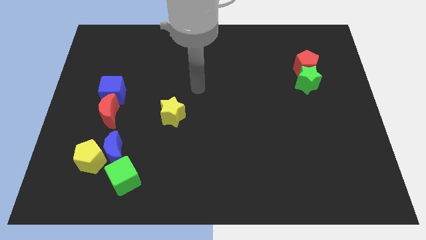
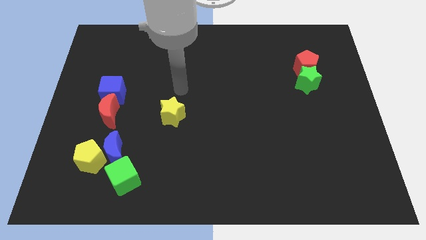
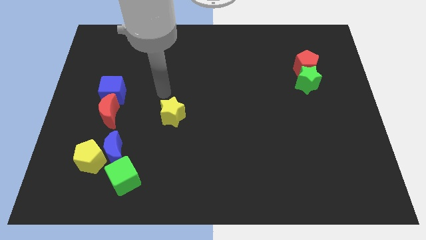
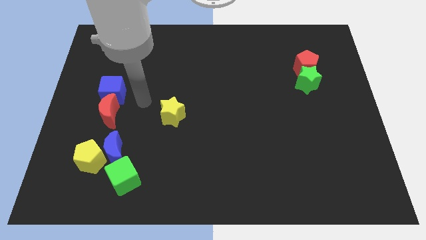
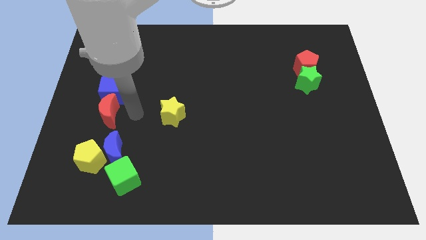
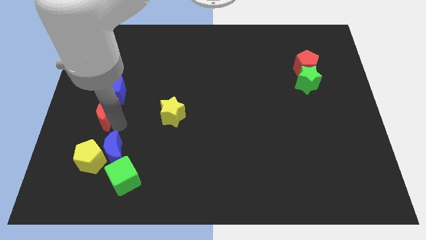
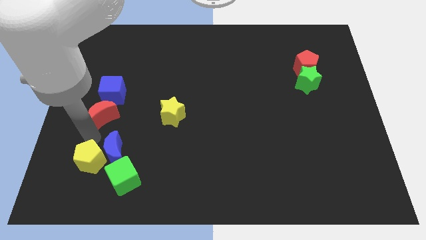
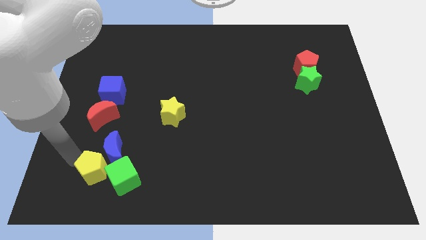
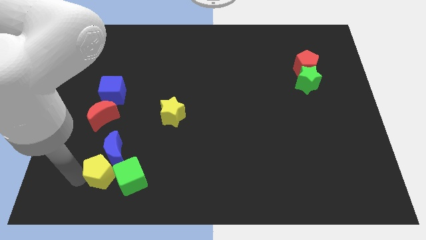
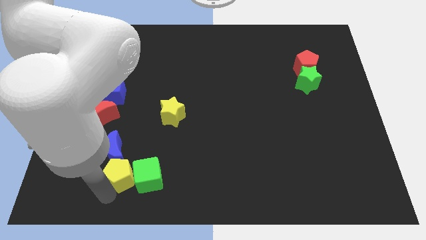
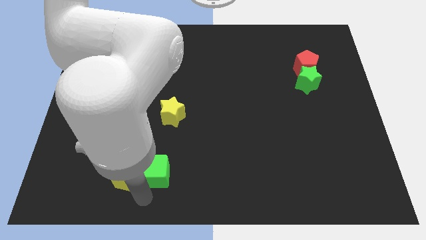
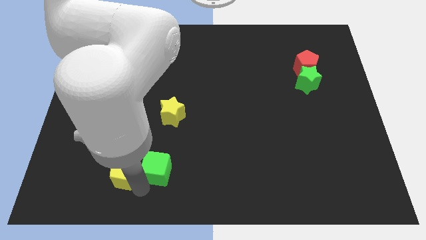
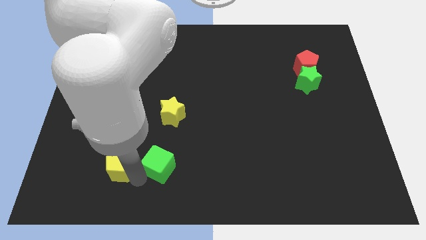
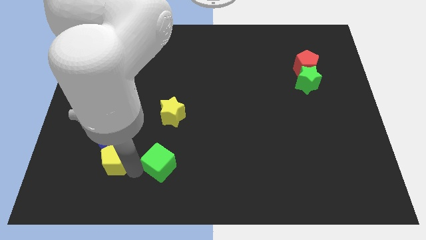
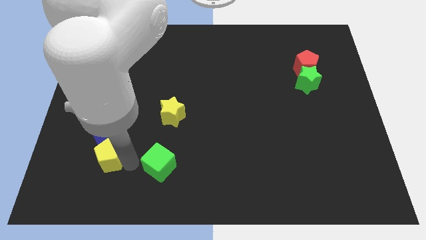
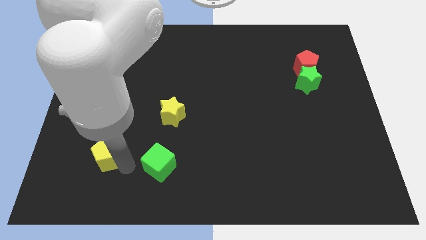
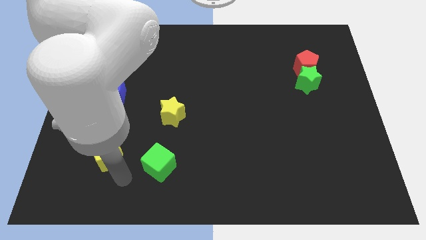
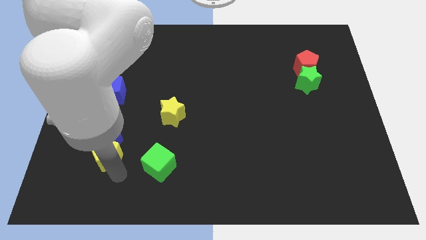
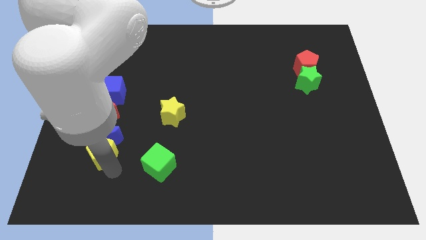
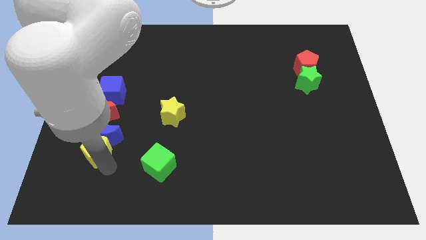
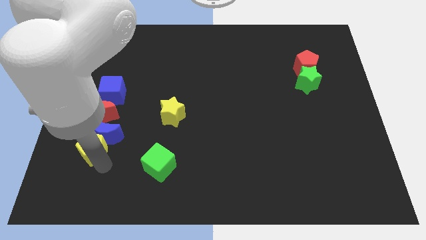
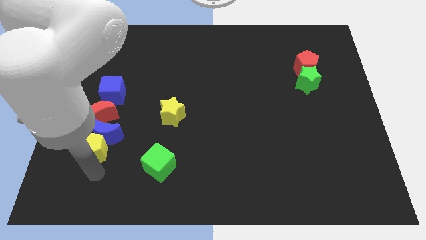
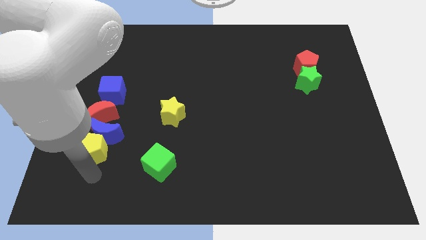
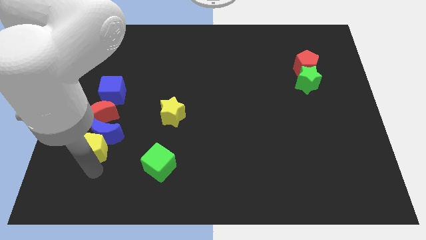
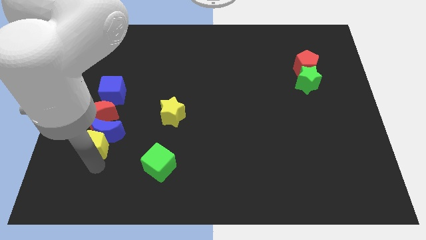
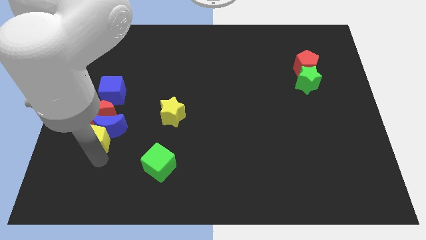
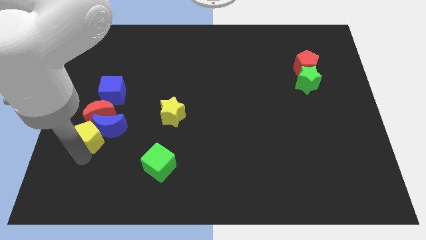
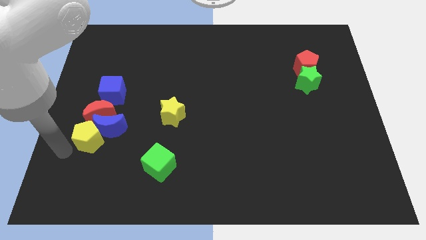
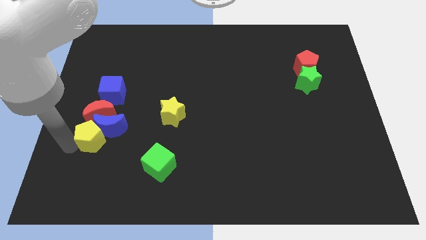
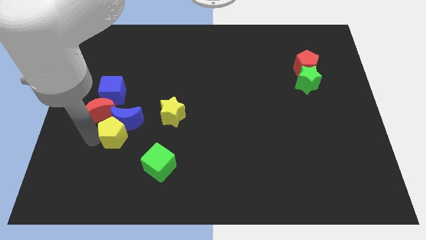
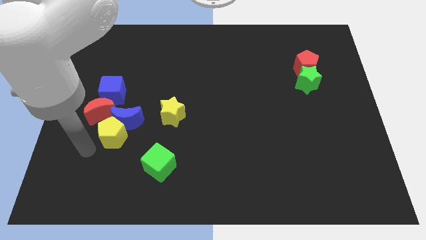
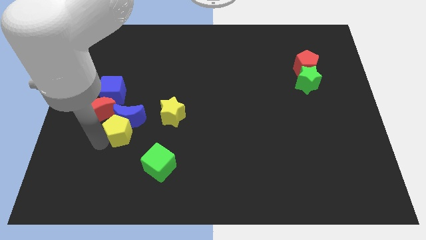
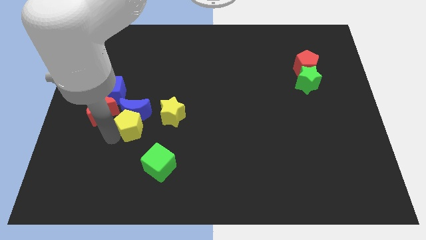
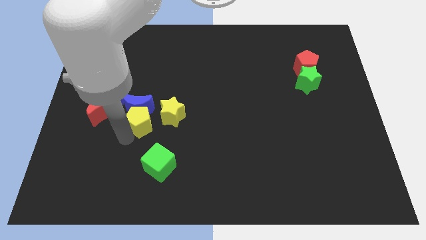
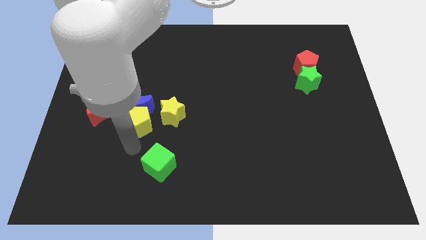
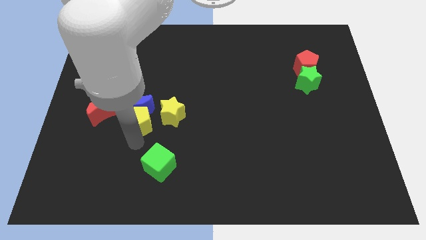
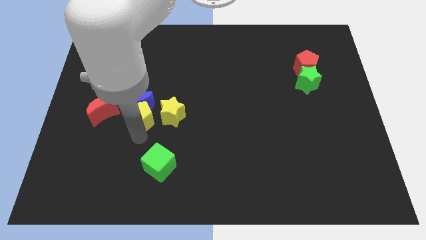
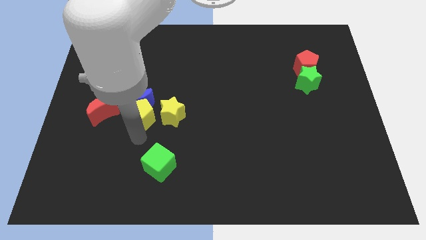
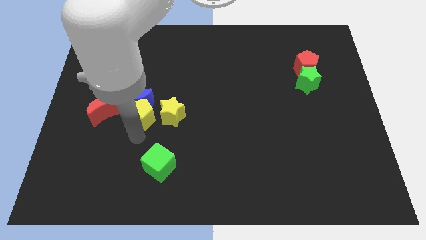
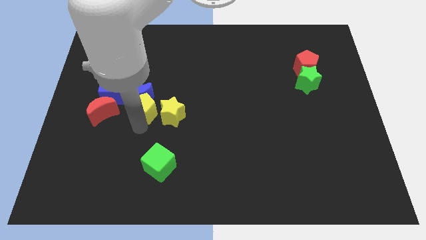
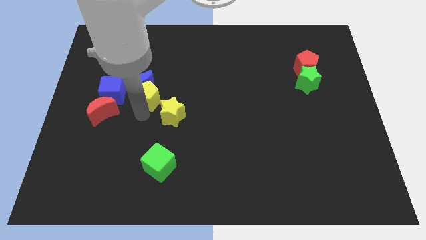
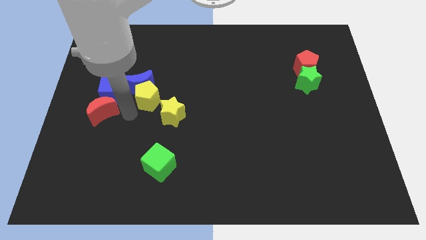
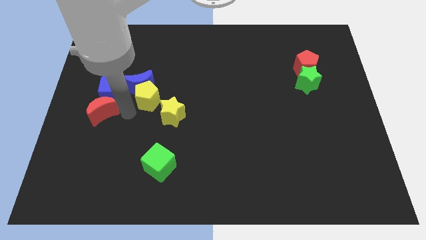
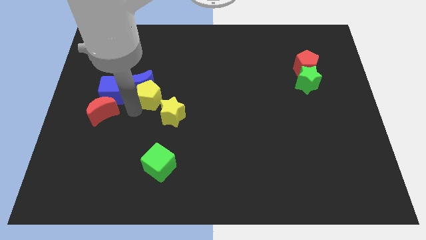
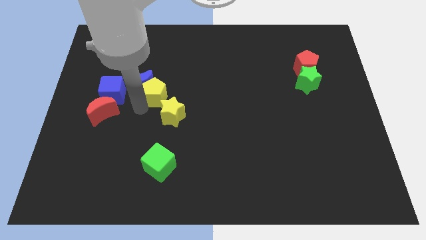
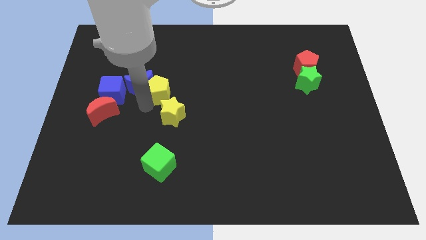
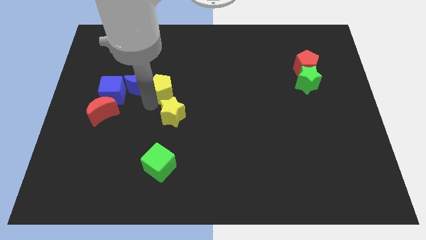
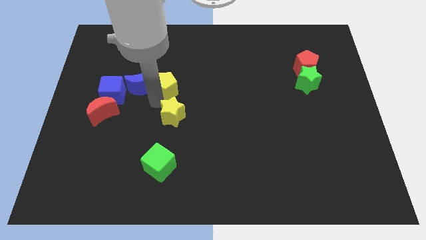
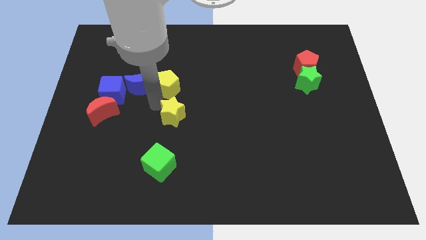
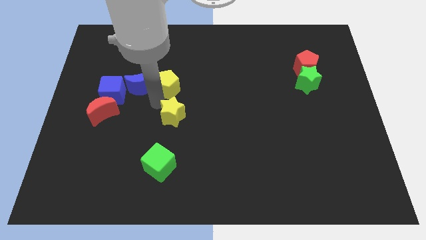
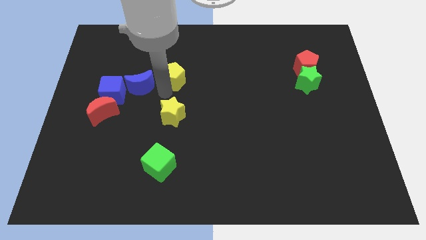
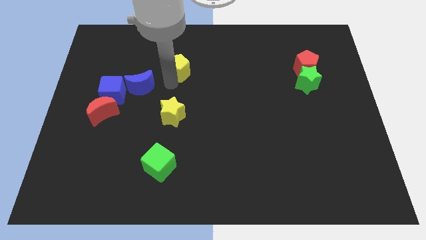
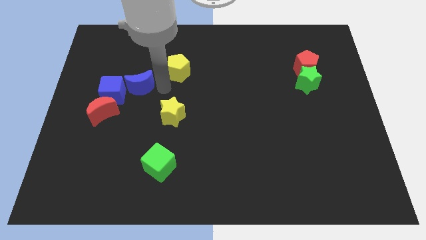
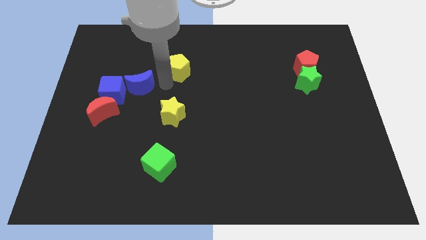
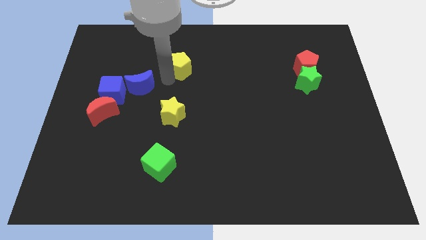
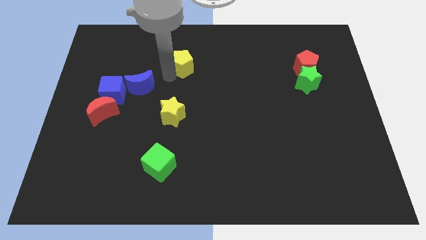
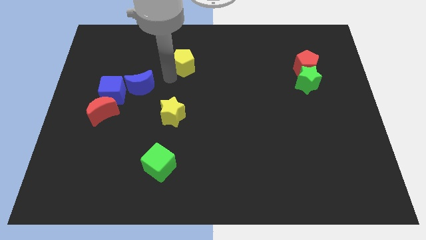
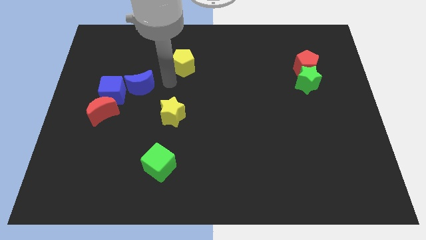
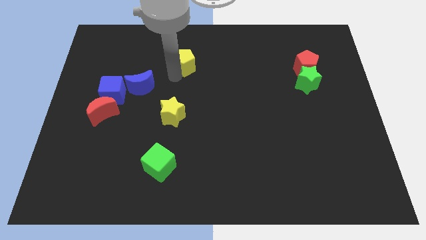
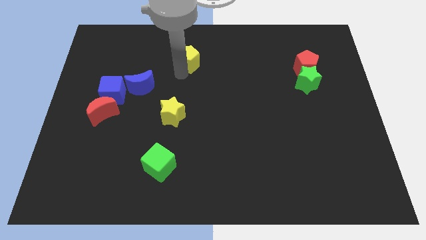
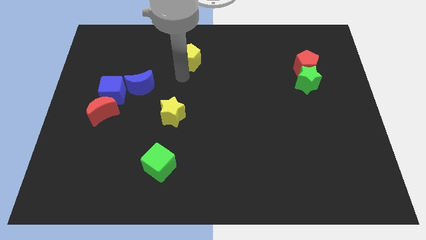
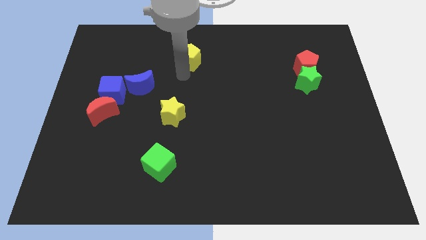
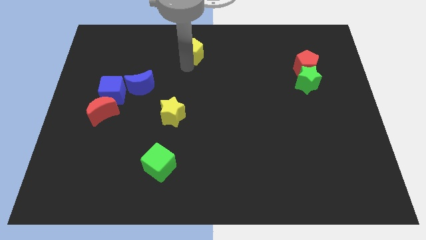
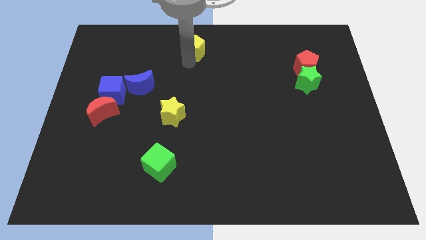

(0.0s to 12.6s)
push the yellow pentagon to the towards your base
